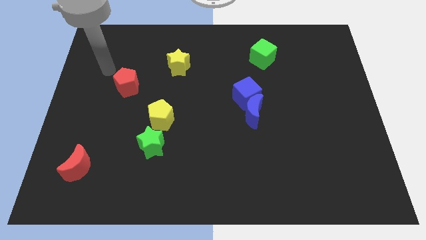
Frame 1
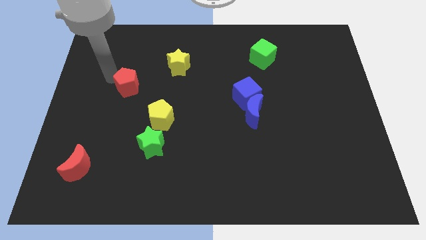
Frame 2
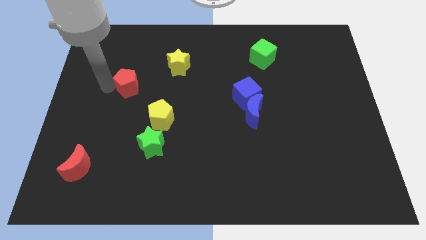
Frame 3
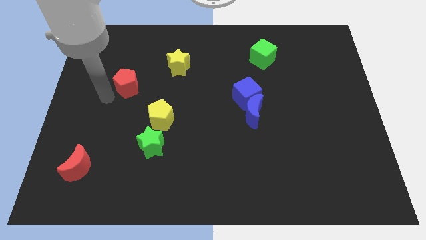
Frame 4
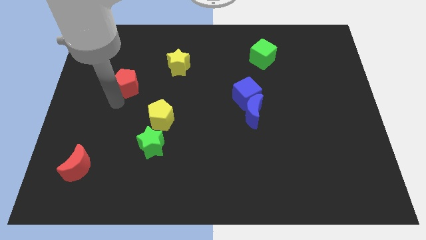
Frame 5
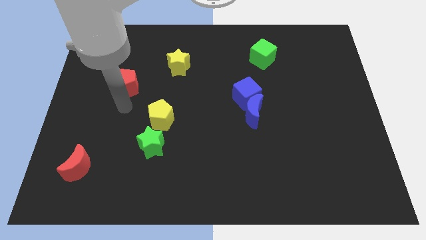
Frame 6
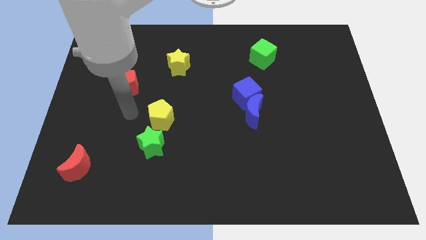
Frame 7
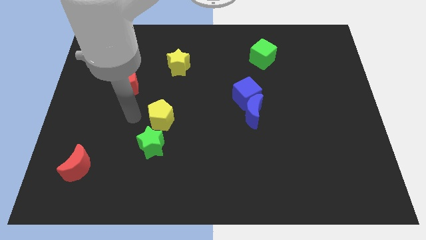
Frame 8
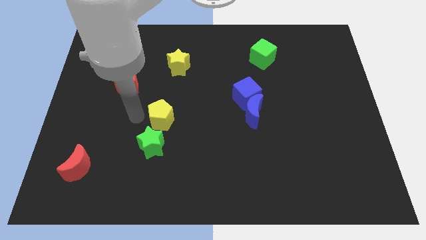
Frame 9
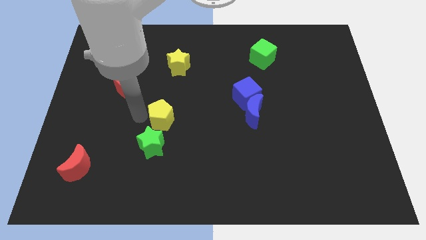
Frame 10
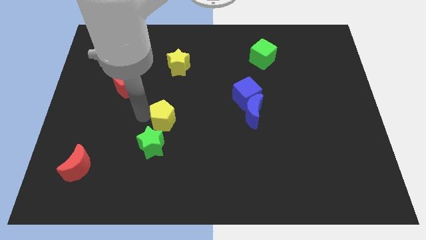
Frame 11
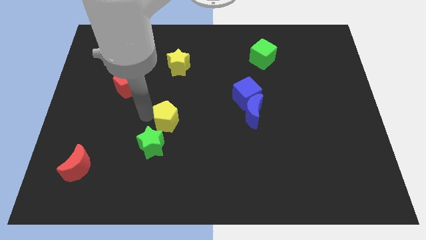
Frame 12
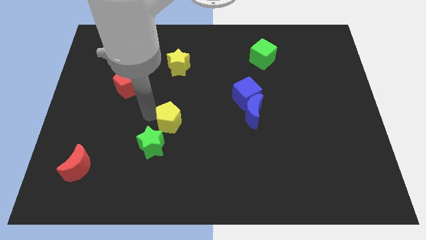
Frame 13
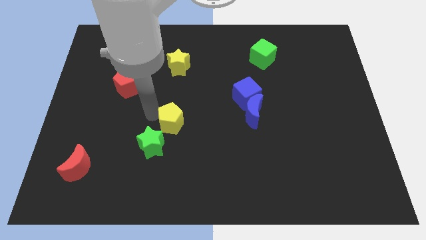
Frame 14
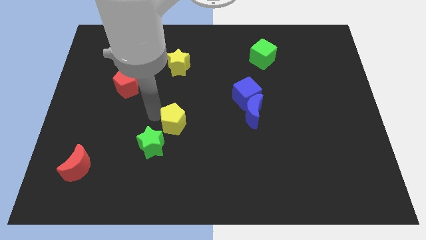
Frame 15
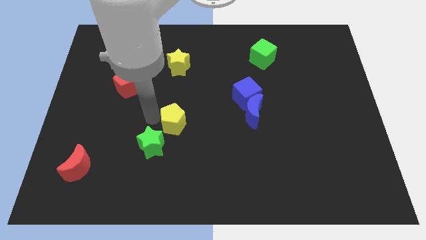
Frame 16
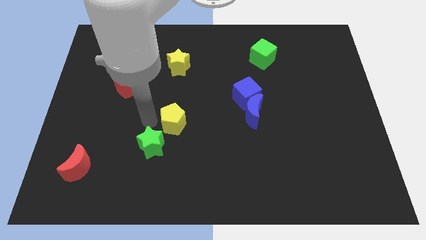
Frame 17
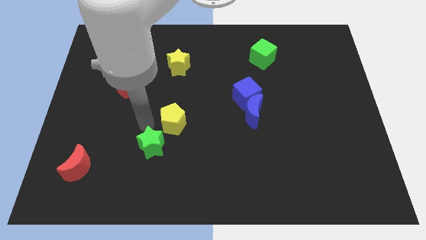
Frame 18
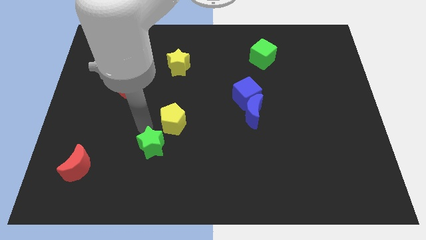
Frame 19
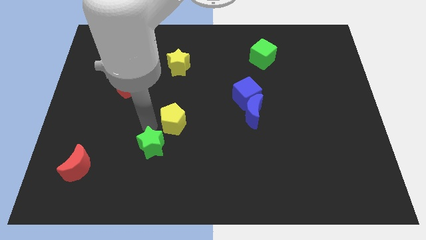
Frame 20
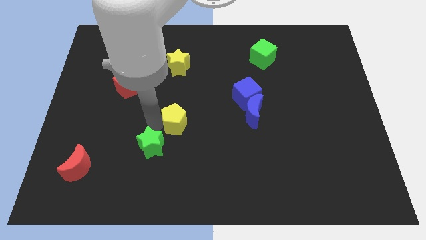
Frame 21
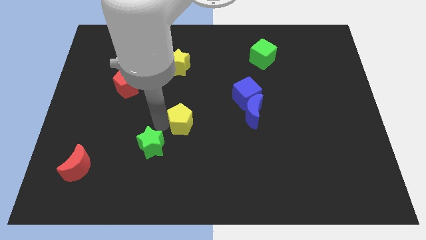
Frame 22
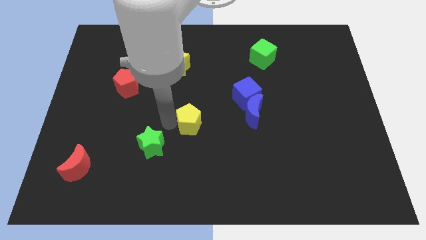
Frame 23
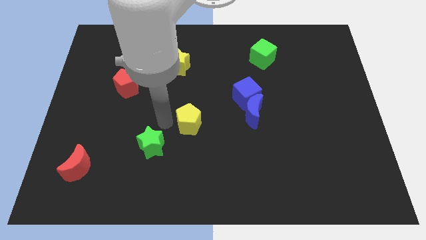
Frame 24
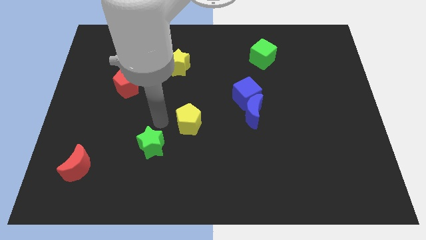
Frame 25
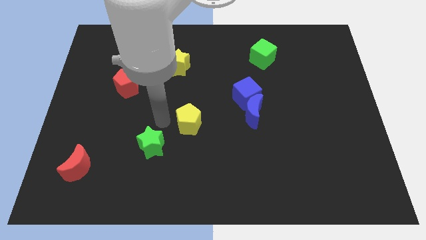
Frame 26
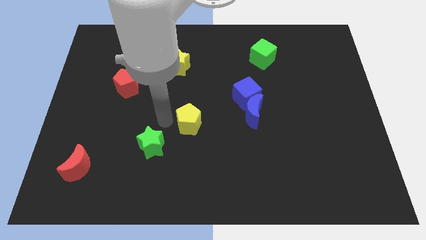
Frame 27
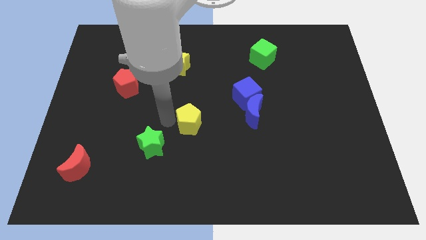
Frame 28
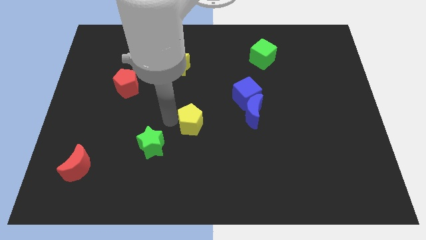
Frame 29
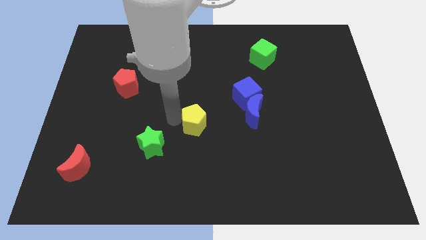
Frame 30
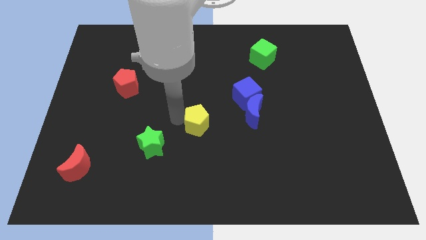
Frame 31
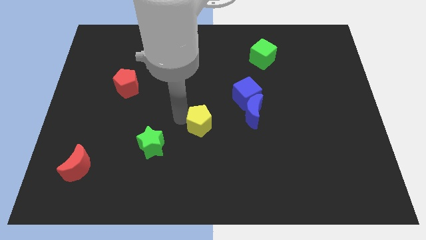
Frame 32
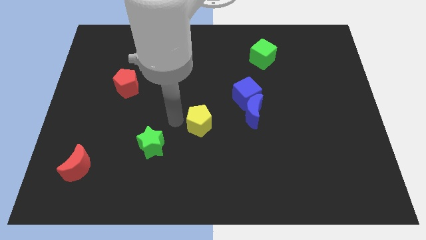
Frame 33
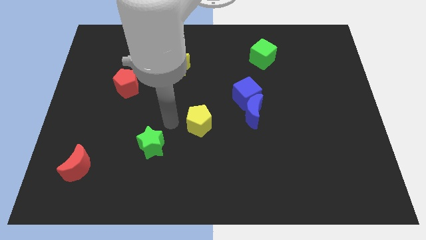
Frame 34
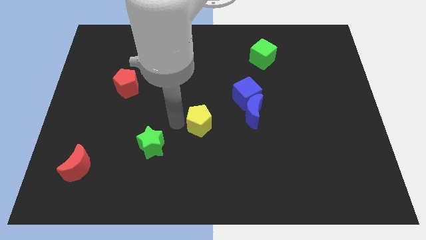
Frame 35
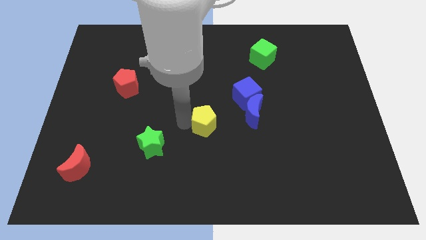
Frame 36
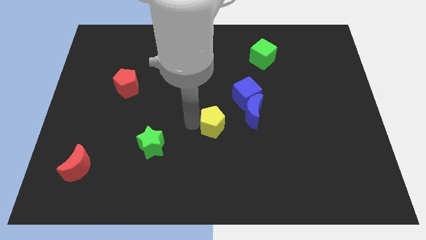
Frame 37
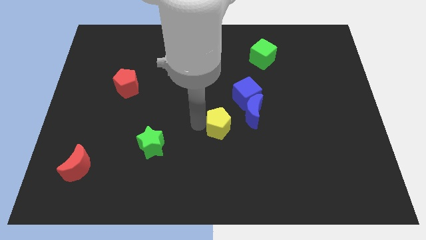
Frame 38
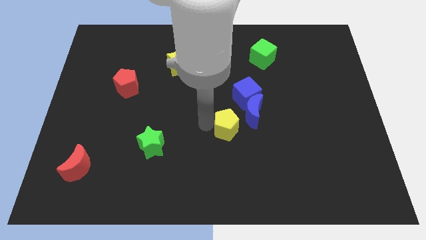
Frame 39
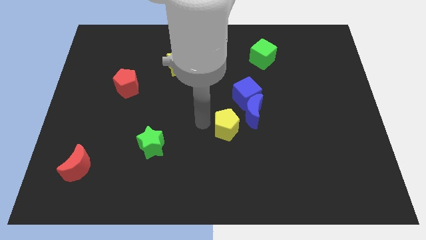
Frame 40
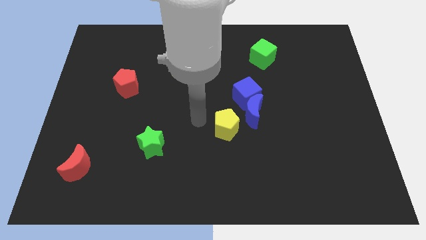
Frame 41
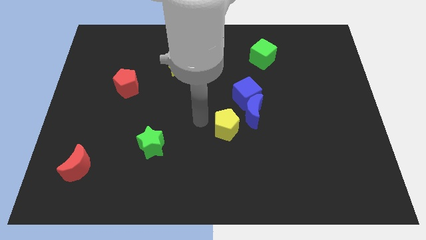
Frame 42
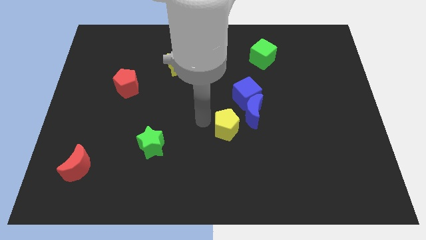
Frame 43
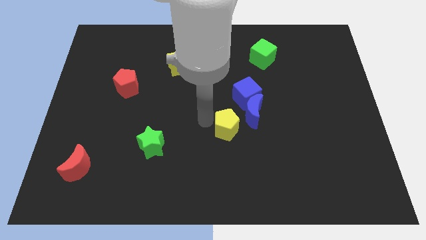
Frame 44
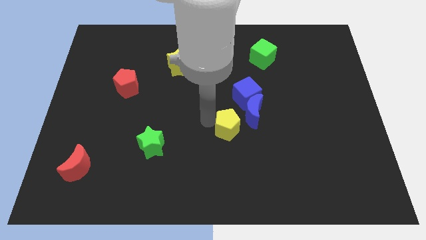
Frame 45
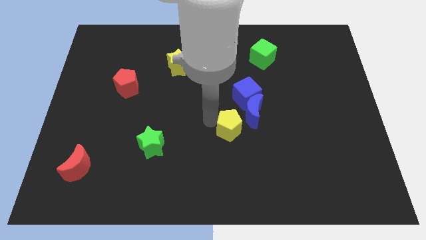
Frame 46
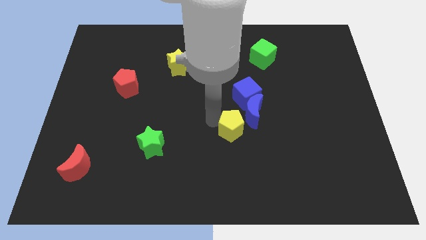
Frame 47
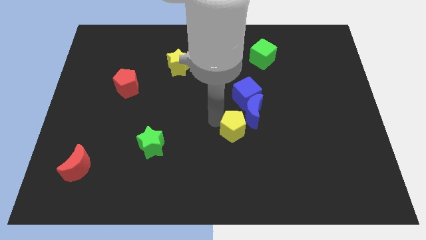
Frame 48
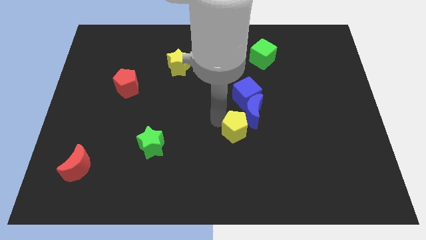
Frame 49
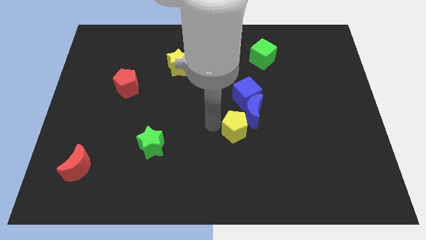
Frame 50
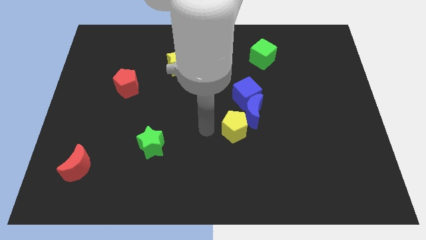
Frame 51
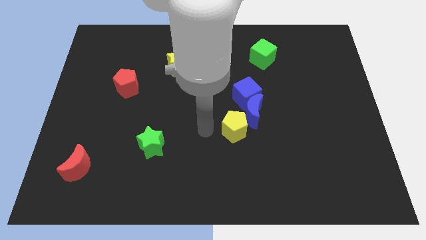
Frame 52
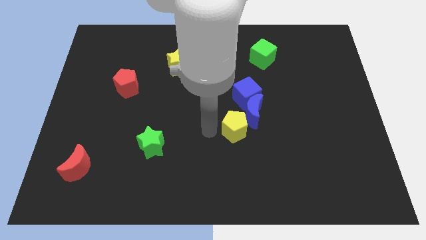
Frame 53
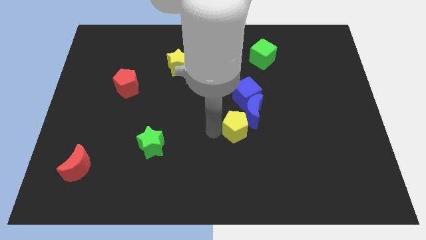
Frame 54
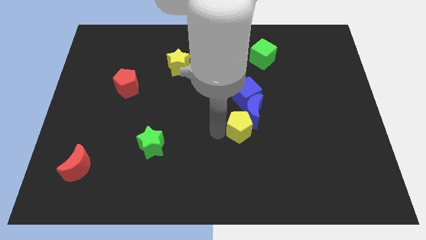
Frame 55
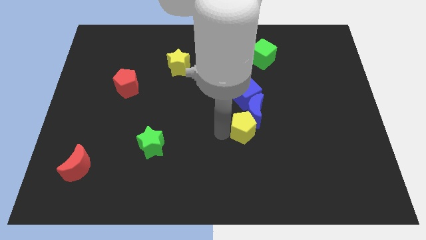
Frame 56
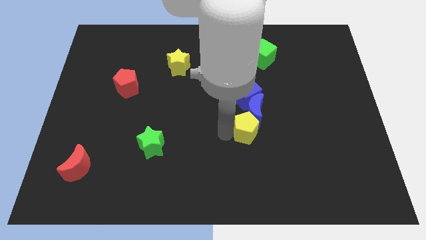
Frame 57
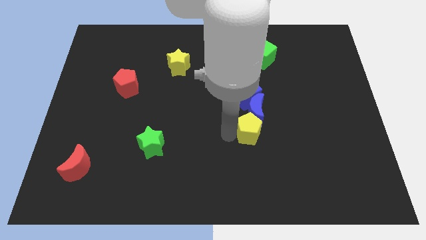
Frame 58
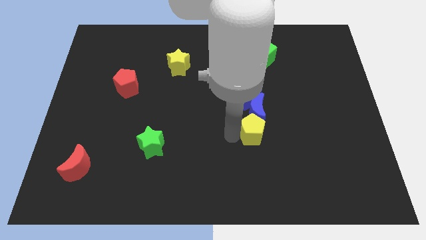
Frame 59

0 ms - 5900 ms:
slide the yellow pentagon right

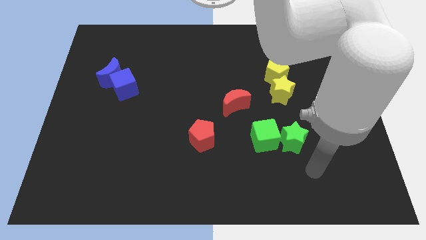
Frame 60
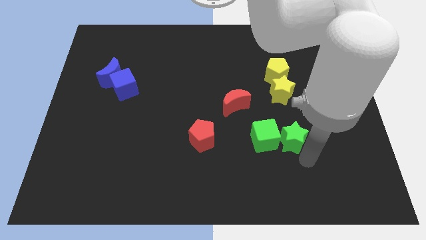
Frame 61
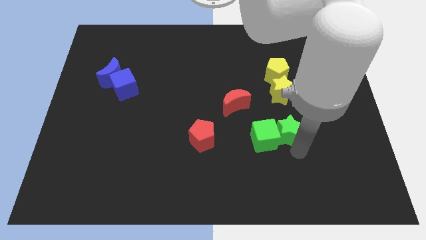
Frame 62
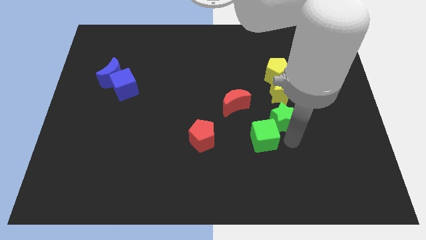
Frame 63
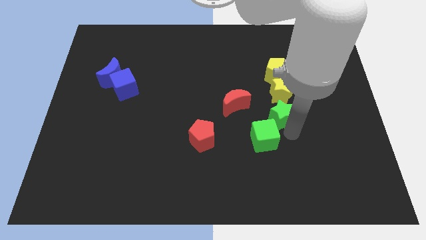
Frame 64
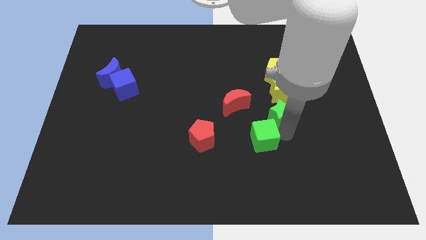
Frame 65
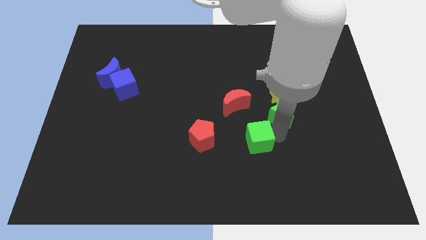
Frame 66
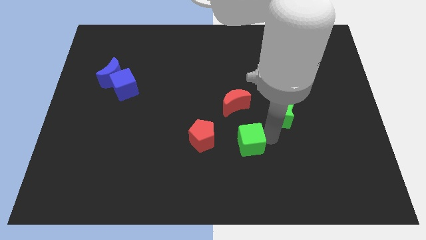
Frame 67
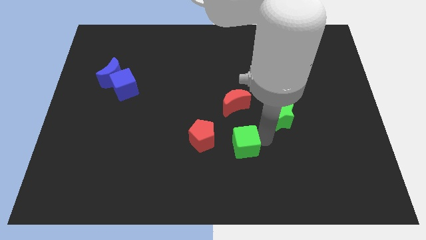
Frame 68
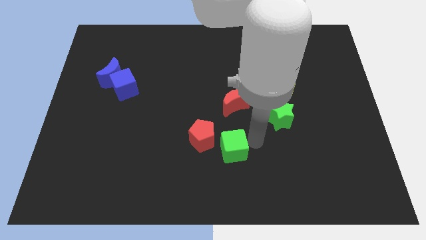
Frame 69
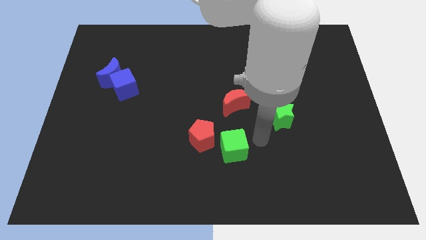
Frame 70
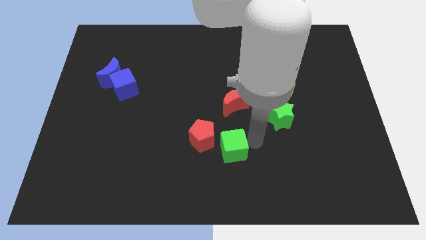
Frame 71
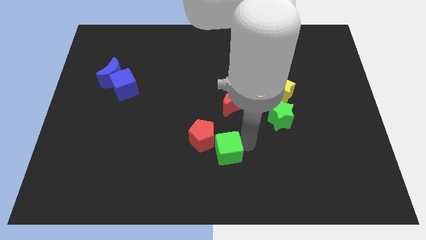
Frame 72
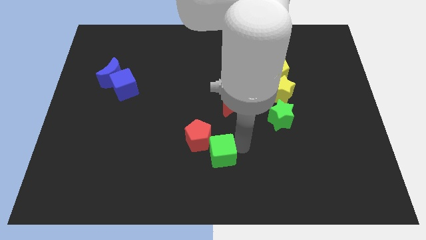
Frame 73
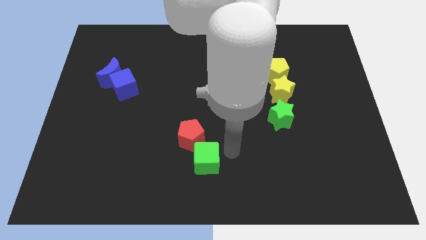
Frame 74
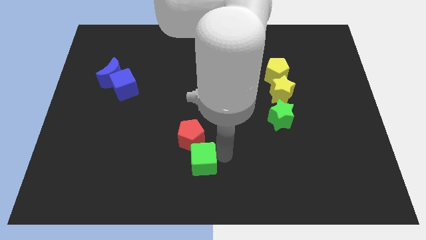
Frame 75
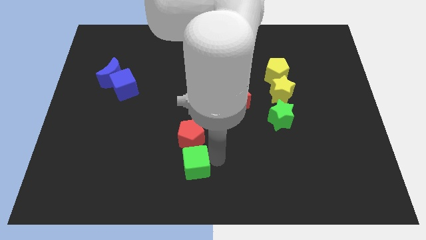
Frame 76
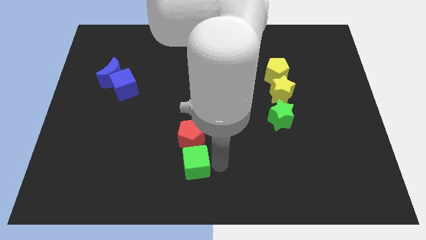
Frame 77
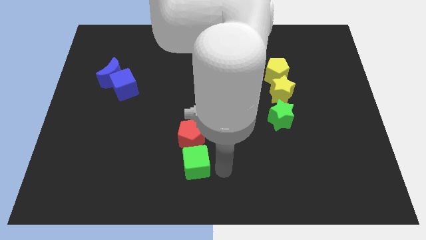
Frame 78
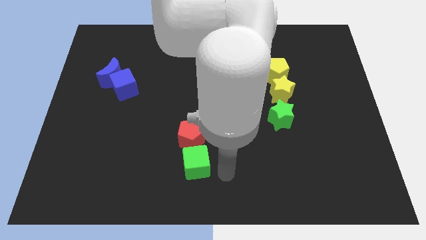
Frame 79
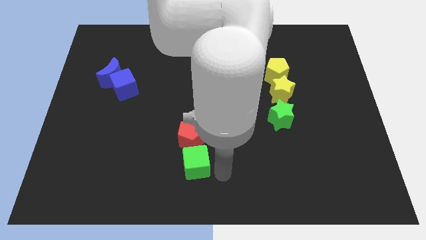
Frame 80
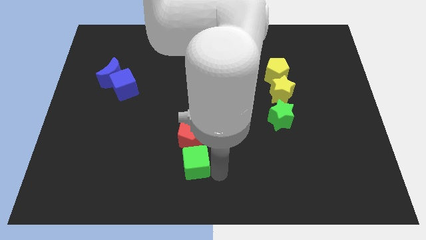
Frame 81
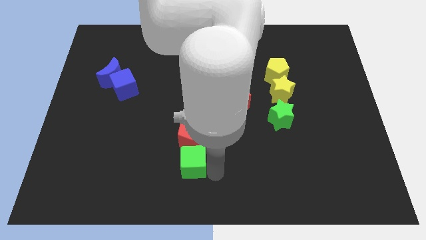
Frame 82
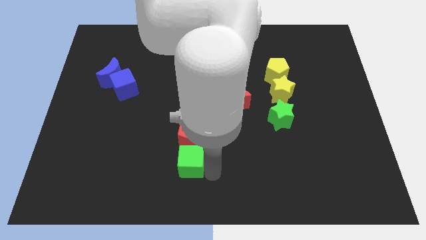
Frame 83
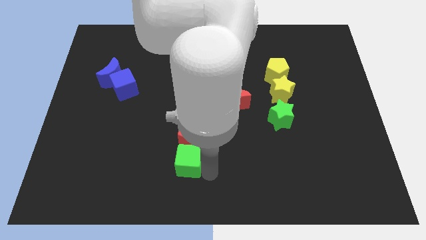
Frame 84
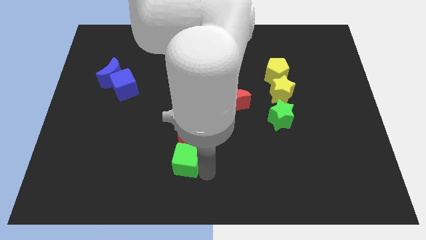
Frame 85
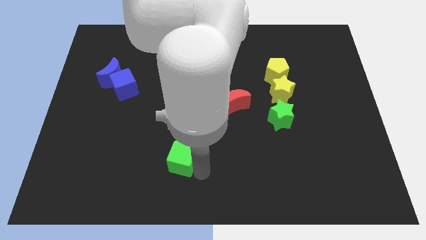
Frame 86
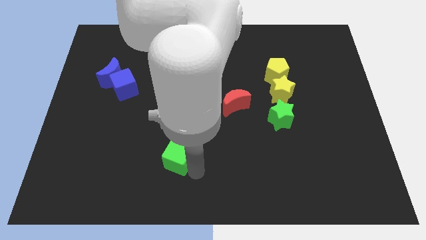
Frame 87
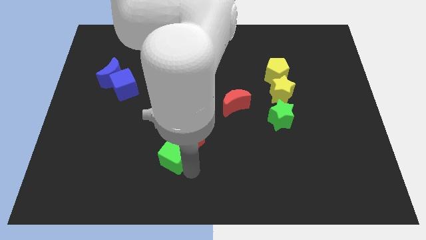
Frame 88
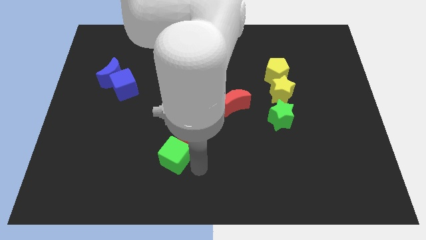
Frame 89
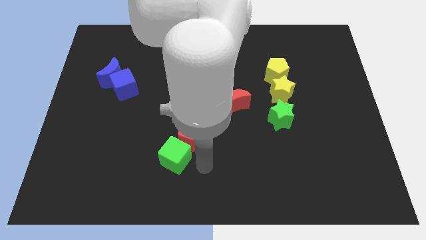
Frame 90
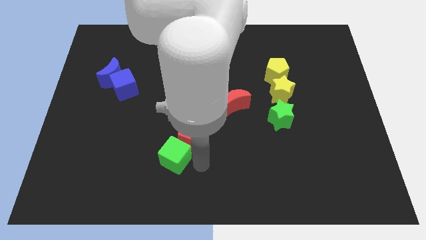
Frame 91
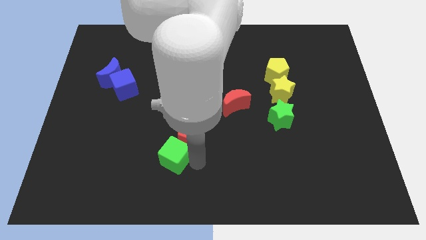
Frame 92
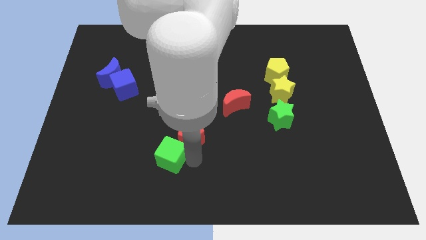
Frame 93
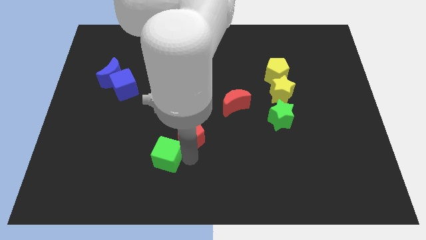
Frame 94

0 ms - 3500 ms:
slide the green cube to the left
